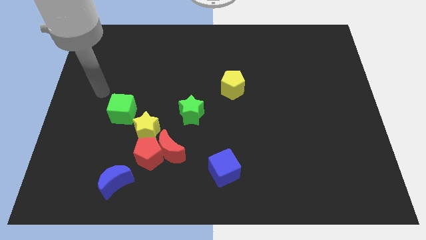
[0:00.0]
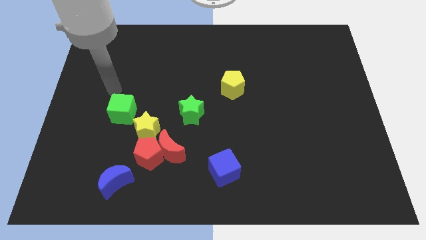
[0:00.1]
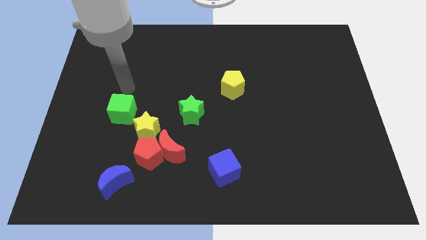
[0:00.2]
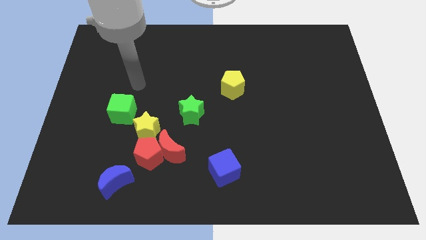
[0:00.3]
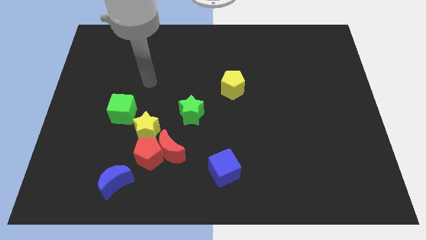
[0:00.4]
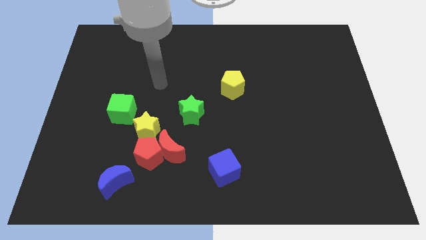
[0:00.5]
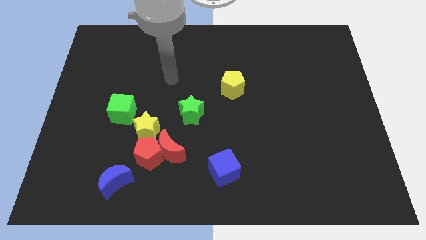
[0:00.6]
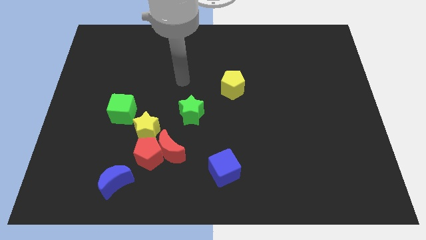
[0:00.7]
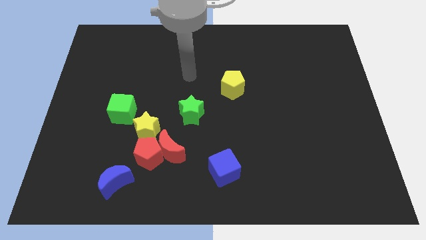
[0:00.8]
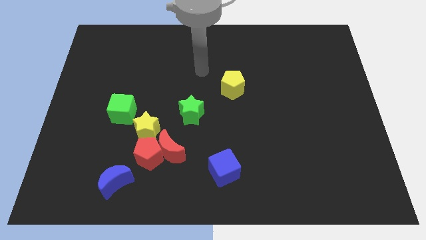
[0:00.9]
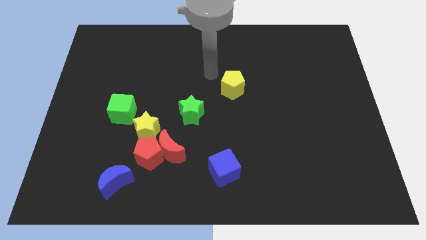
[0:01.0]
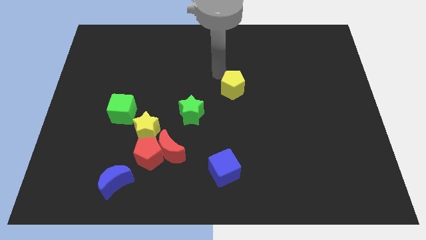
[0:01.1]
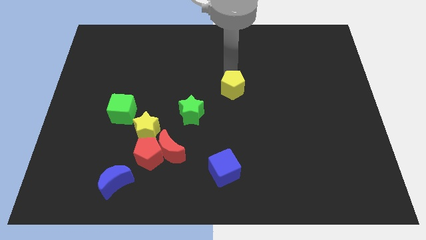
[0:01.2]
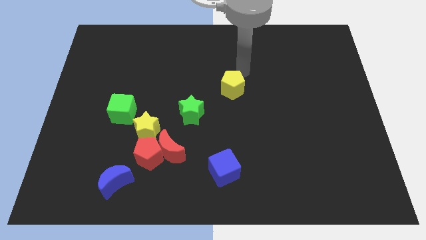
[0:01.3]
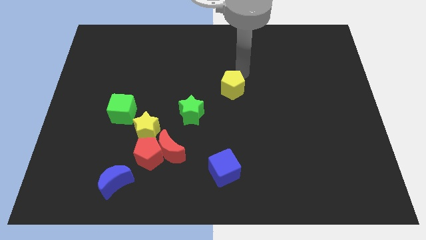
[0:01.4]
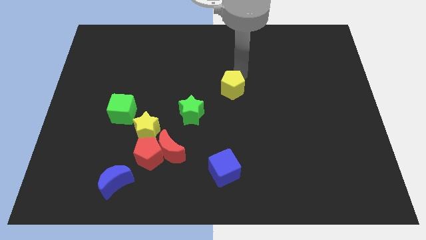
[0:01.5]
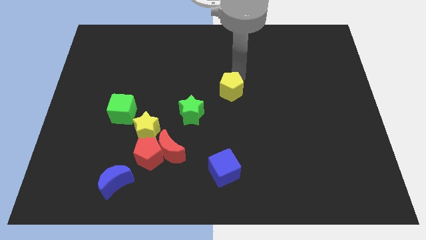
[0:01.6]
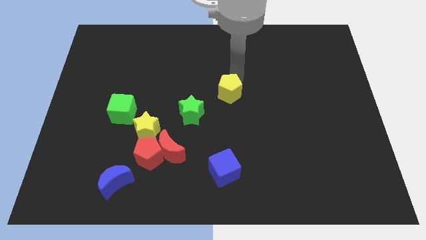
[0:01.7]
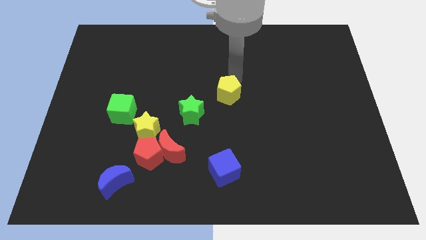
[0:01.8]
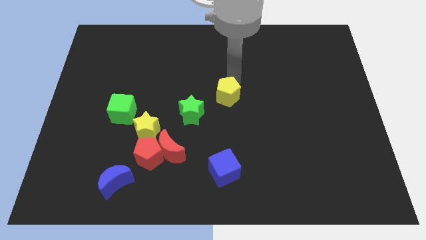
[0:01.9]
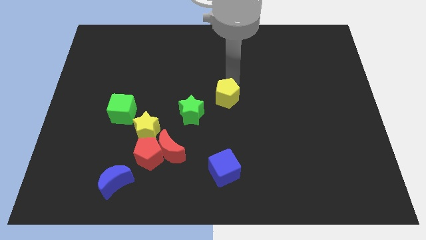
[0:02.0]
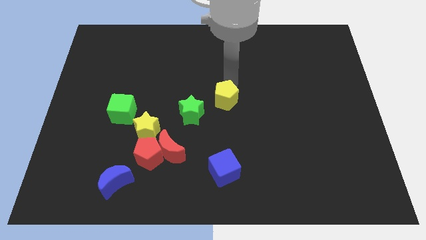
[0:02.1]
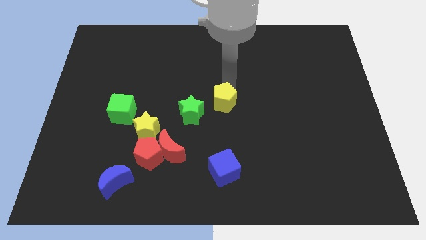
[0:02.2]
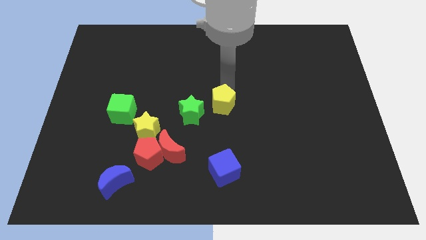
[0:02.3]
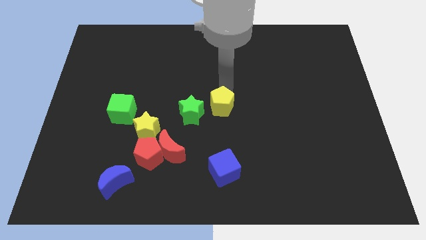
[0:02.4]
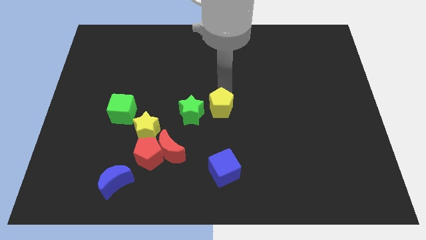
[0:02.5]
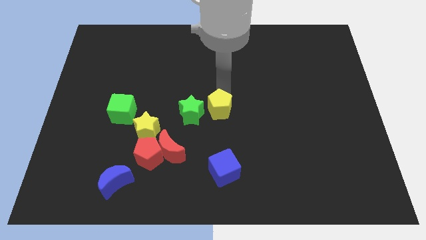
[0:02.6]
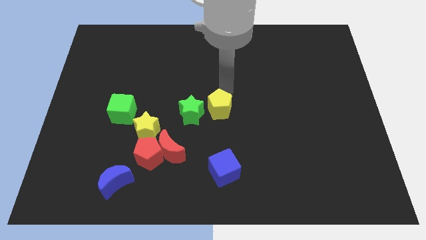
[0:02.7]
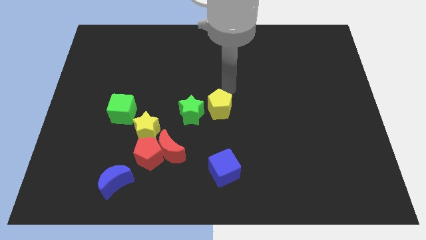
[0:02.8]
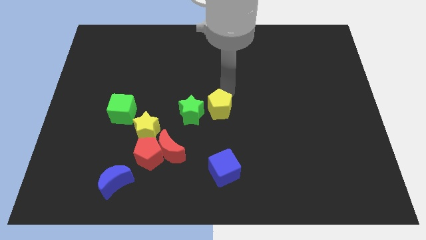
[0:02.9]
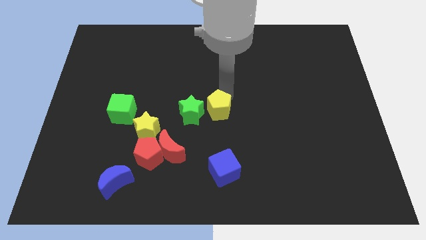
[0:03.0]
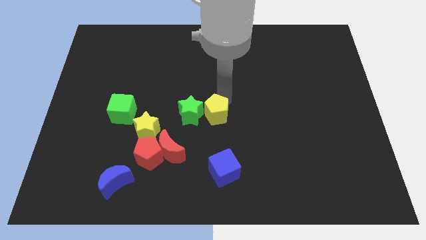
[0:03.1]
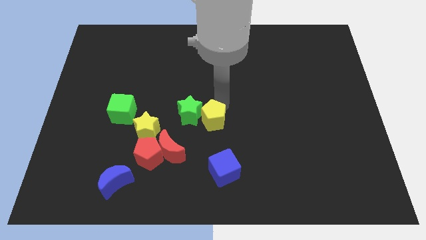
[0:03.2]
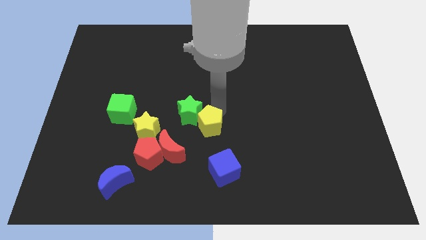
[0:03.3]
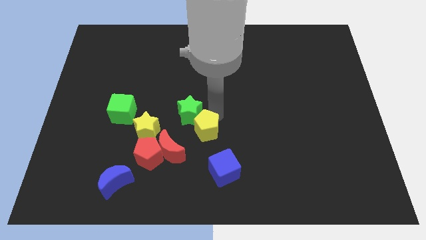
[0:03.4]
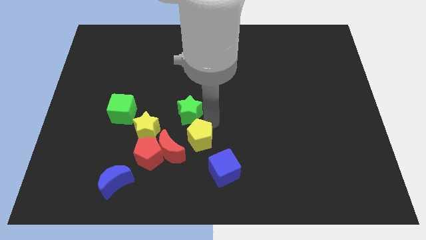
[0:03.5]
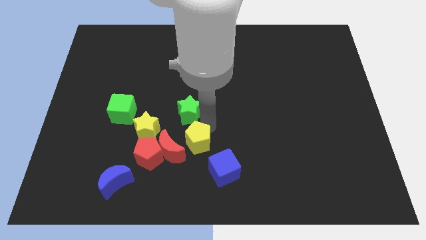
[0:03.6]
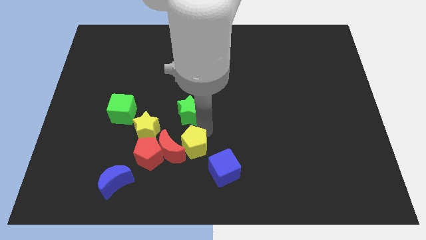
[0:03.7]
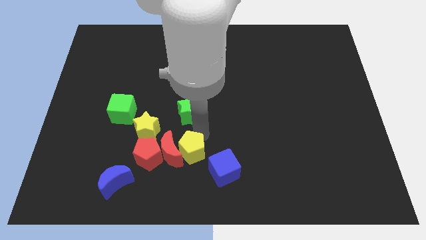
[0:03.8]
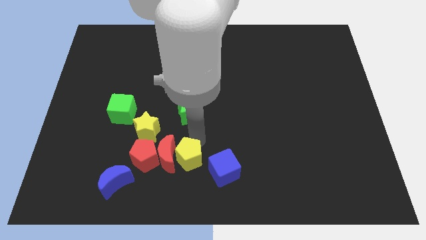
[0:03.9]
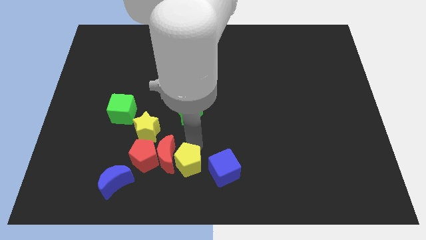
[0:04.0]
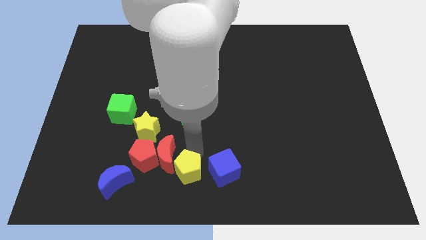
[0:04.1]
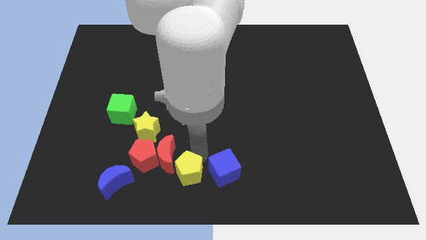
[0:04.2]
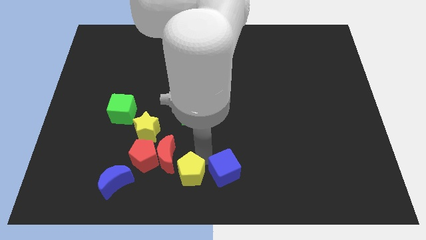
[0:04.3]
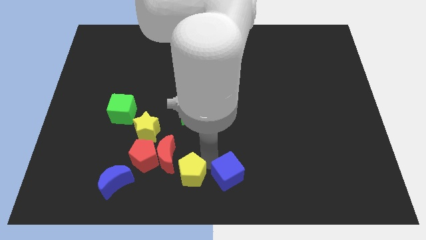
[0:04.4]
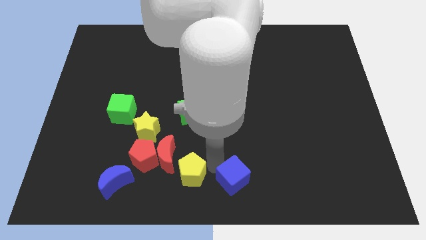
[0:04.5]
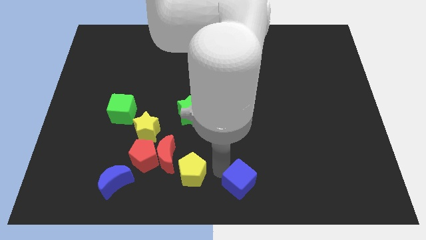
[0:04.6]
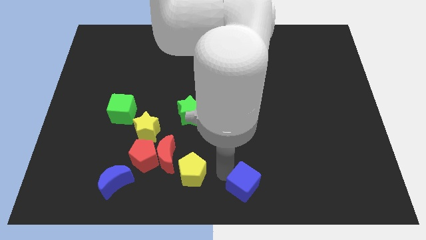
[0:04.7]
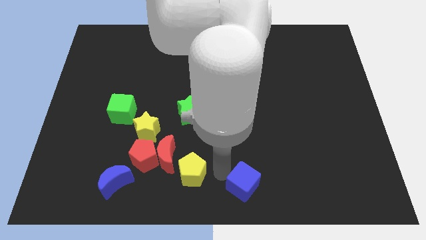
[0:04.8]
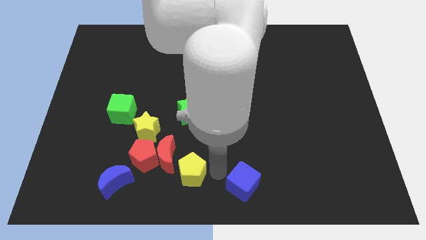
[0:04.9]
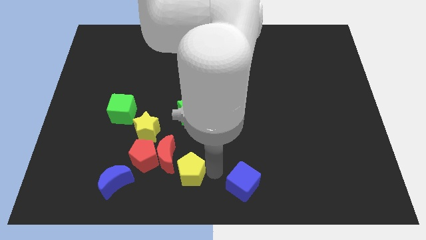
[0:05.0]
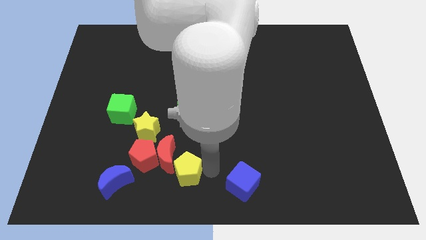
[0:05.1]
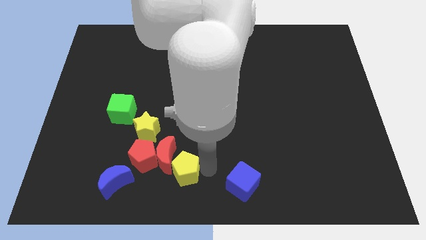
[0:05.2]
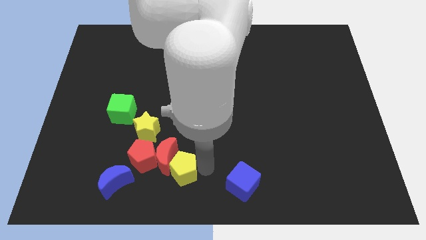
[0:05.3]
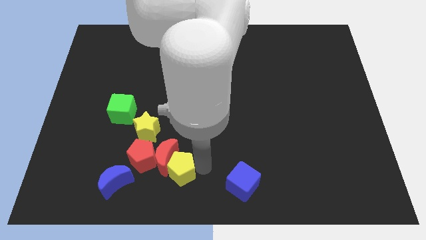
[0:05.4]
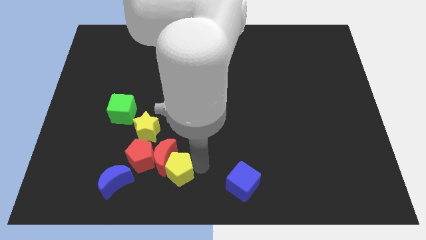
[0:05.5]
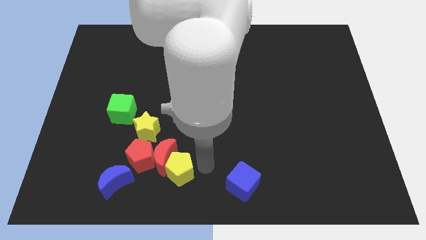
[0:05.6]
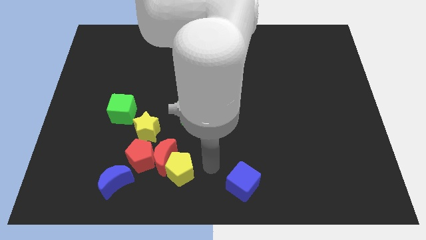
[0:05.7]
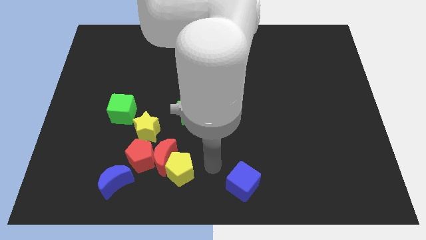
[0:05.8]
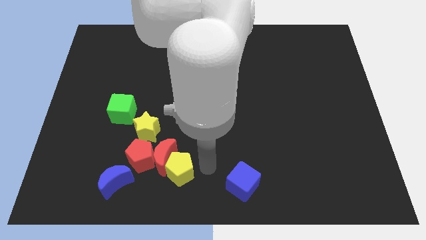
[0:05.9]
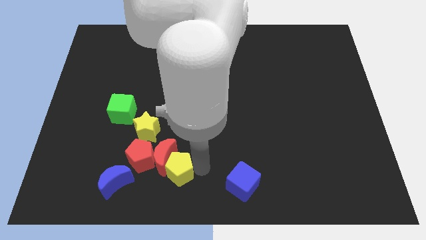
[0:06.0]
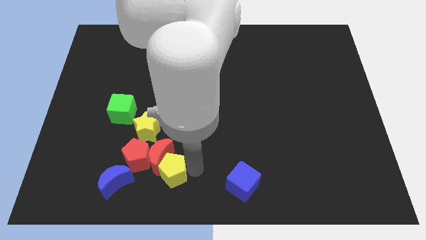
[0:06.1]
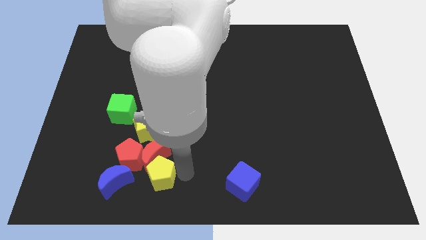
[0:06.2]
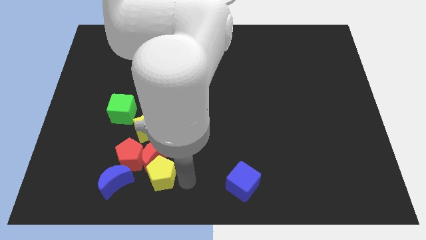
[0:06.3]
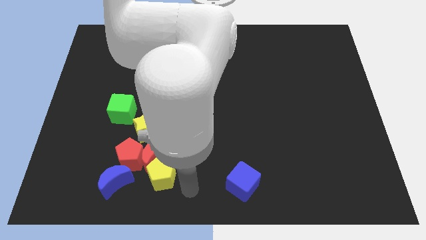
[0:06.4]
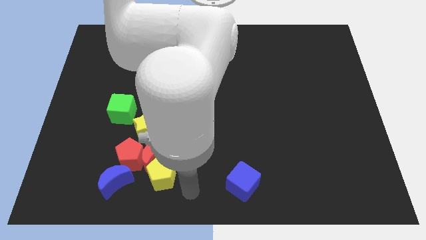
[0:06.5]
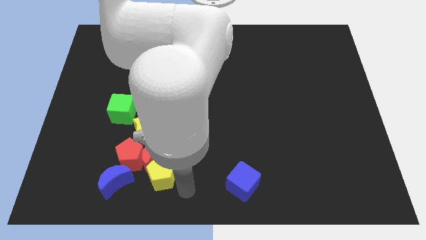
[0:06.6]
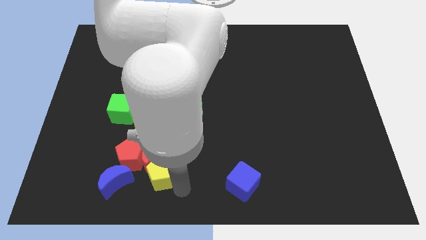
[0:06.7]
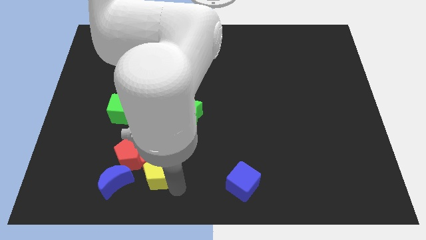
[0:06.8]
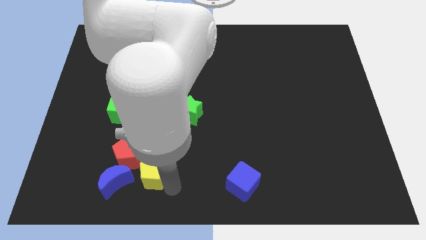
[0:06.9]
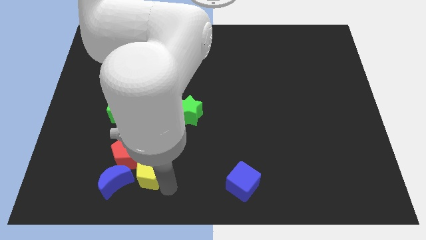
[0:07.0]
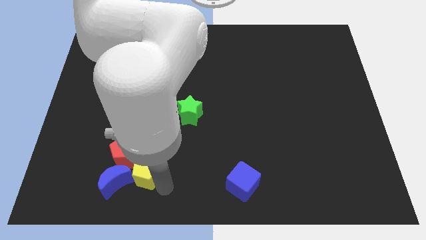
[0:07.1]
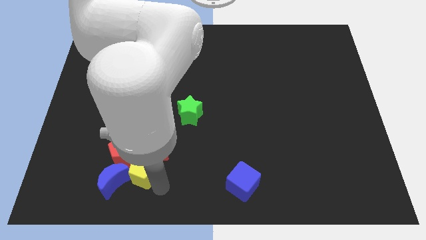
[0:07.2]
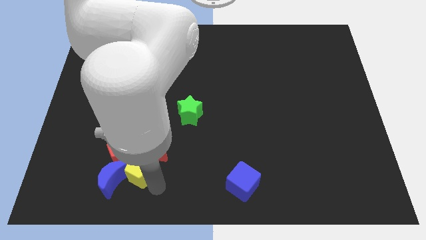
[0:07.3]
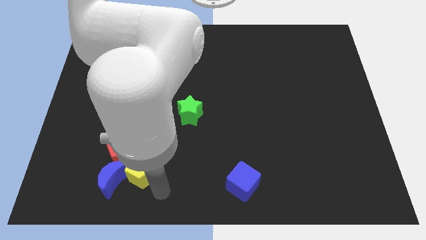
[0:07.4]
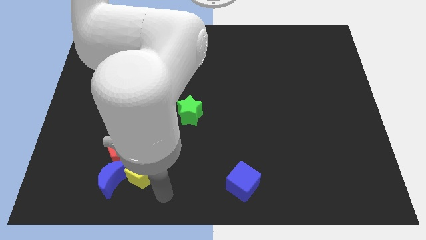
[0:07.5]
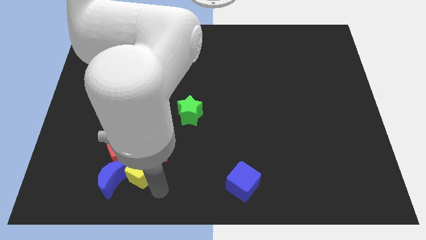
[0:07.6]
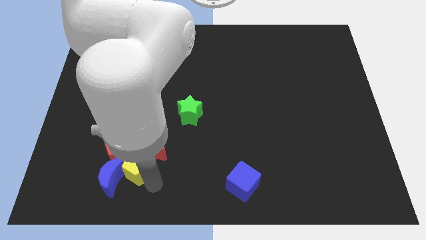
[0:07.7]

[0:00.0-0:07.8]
put the yellow pentagon towards the red pentagon

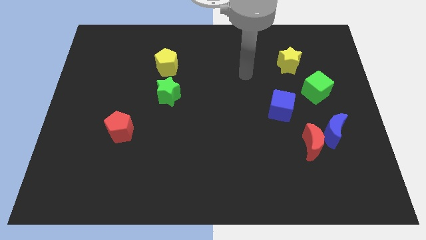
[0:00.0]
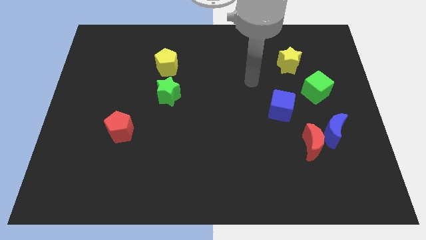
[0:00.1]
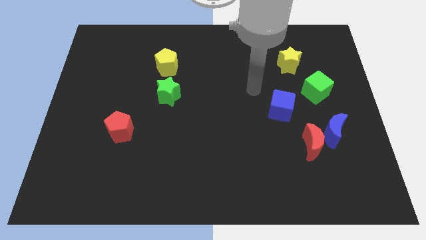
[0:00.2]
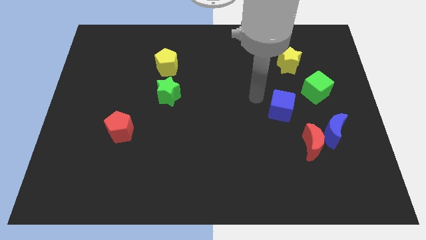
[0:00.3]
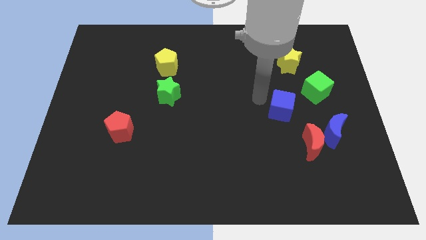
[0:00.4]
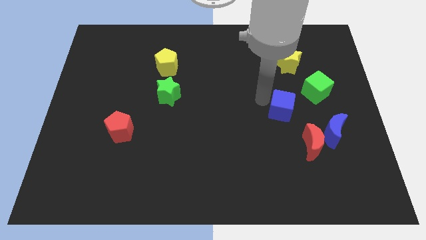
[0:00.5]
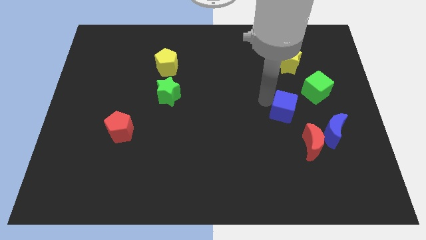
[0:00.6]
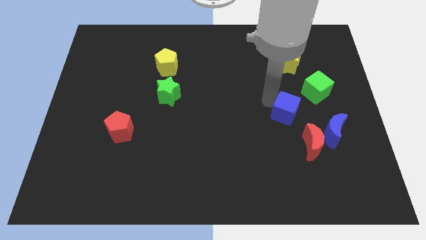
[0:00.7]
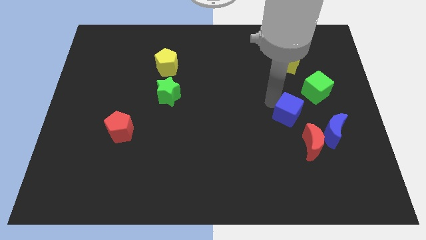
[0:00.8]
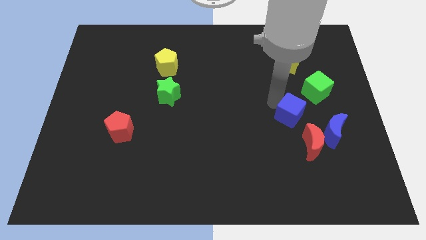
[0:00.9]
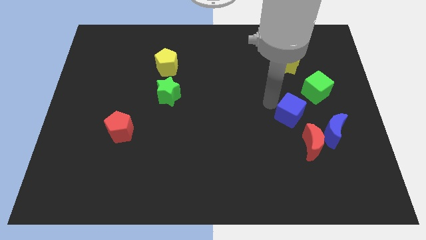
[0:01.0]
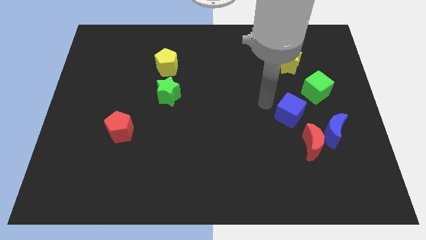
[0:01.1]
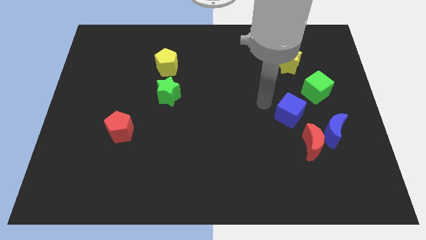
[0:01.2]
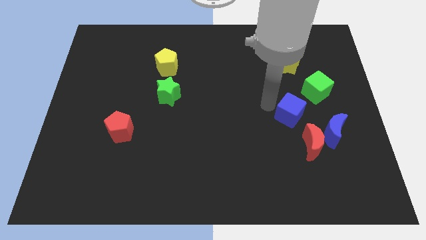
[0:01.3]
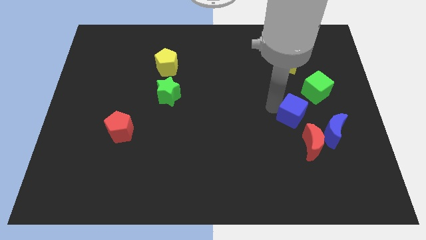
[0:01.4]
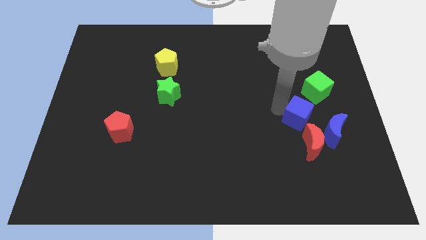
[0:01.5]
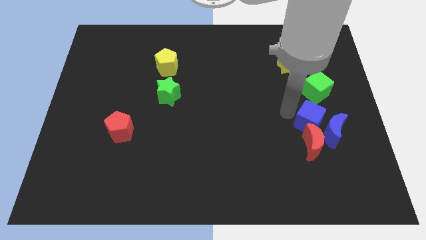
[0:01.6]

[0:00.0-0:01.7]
move the blue cube next to the blue moon
